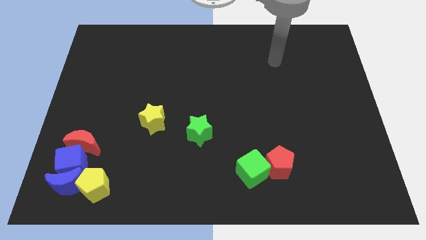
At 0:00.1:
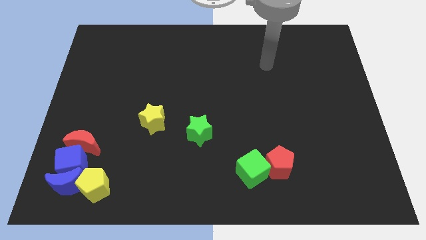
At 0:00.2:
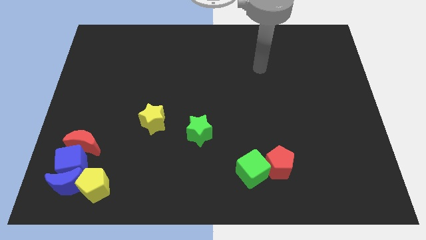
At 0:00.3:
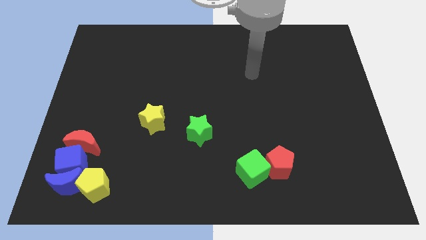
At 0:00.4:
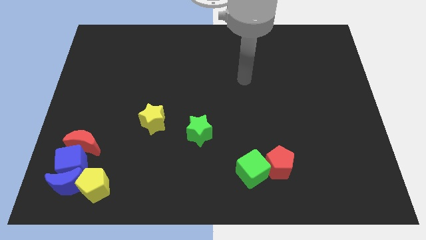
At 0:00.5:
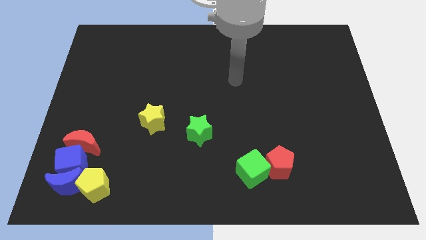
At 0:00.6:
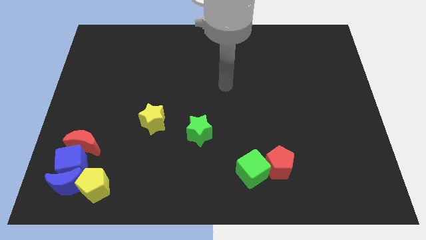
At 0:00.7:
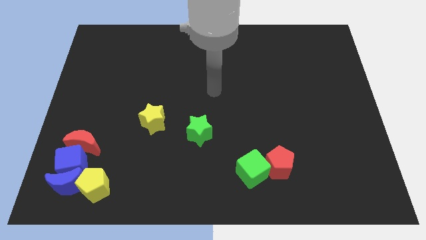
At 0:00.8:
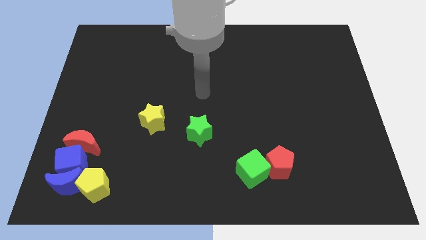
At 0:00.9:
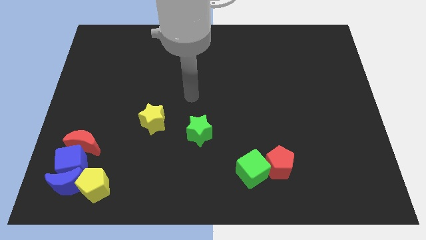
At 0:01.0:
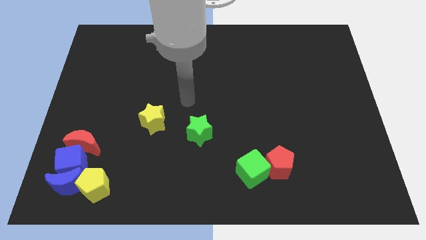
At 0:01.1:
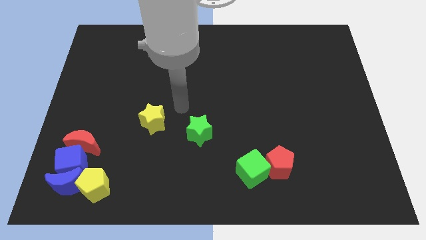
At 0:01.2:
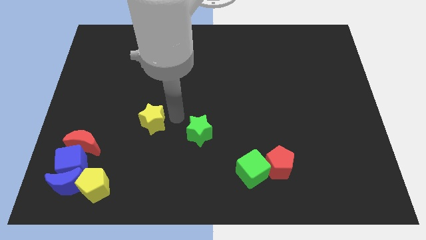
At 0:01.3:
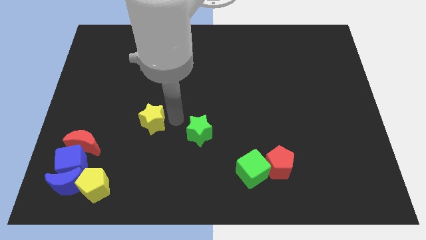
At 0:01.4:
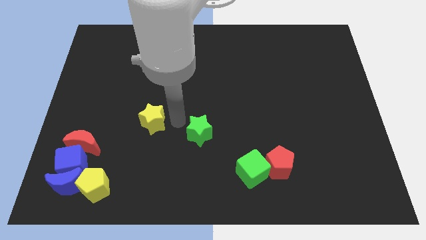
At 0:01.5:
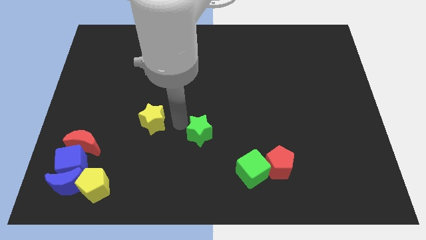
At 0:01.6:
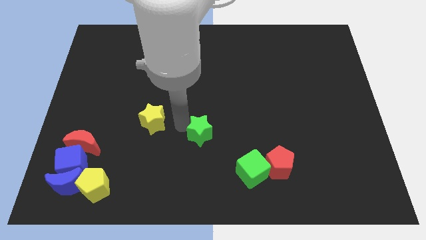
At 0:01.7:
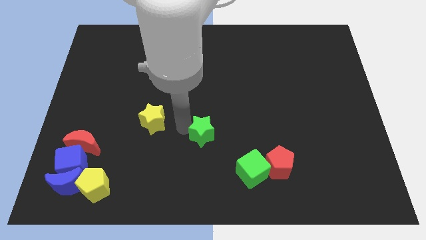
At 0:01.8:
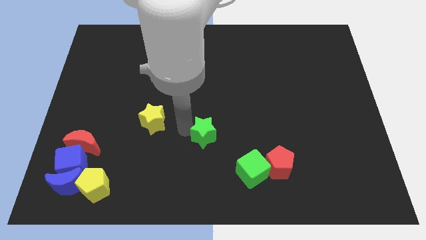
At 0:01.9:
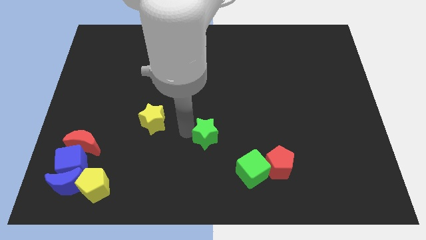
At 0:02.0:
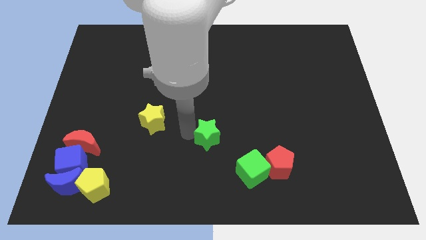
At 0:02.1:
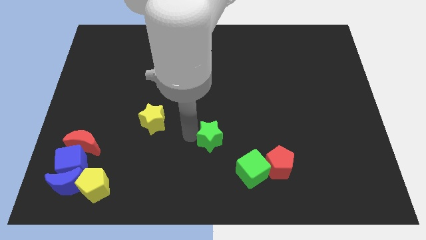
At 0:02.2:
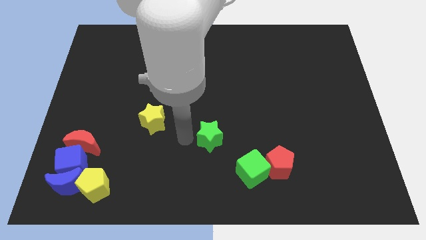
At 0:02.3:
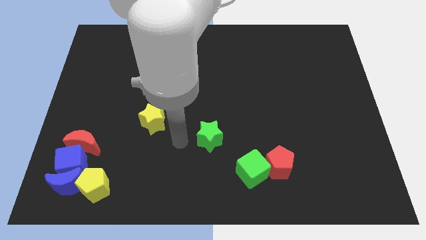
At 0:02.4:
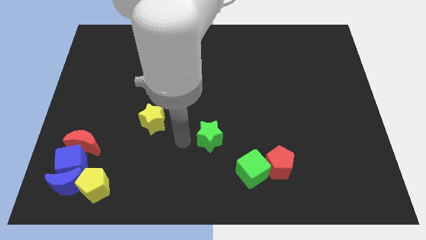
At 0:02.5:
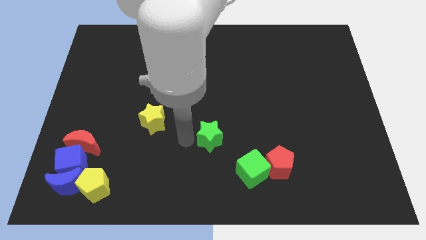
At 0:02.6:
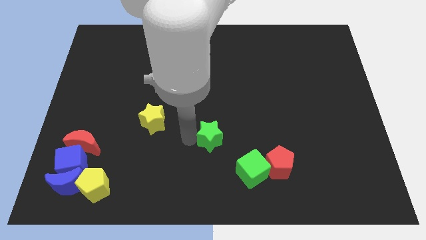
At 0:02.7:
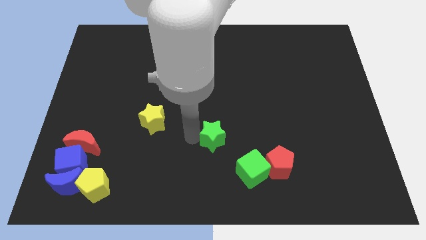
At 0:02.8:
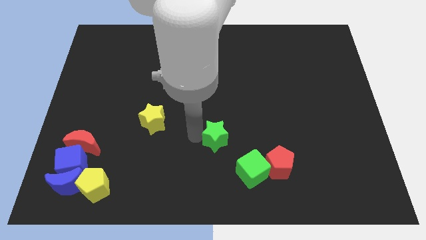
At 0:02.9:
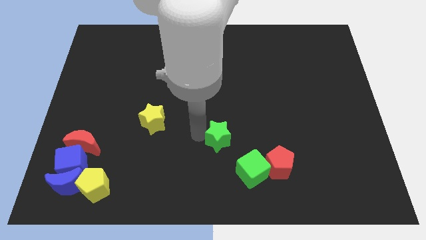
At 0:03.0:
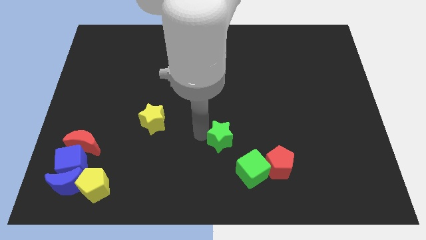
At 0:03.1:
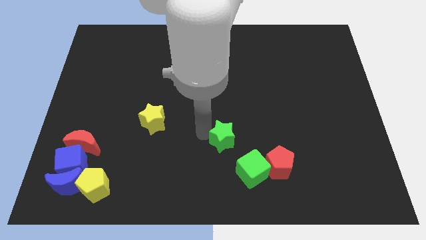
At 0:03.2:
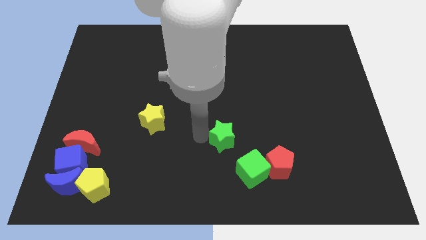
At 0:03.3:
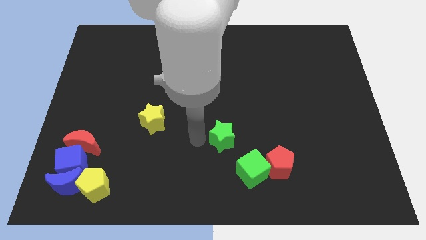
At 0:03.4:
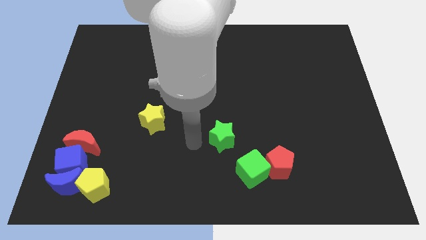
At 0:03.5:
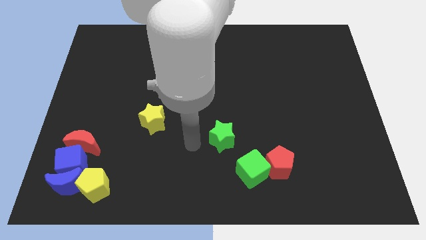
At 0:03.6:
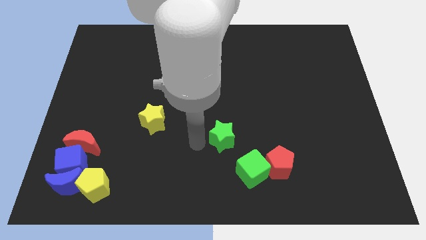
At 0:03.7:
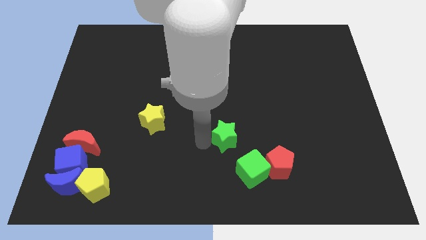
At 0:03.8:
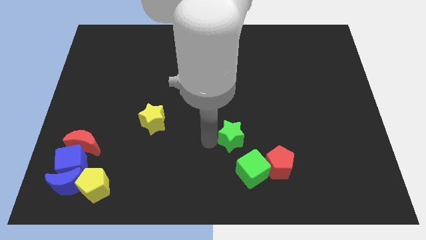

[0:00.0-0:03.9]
move the green star slightly right

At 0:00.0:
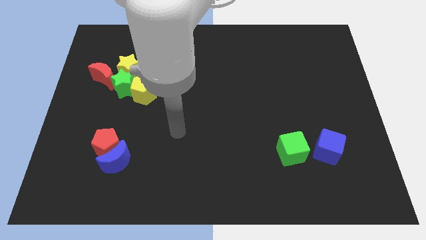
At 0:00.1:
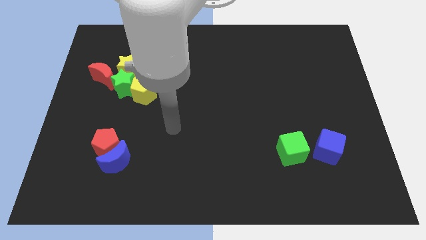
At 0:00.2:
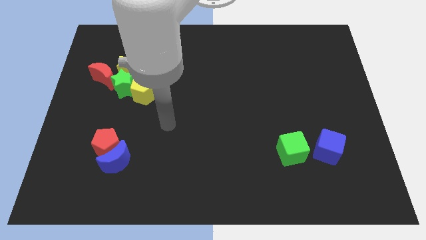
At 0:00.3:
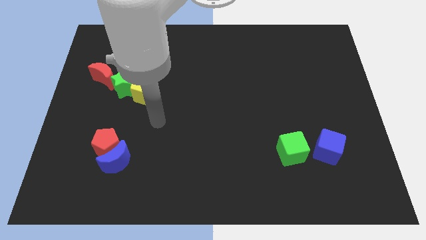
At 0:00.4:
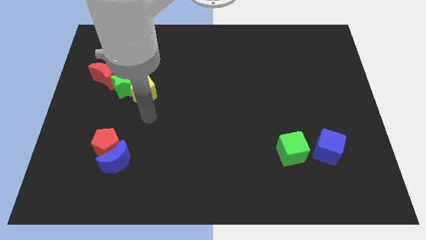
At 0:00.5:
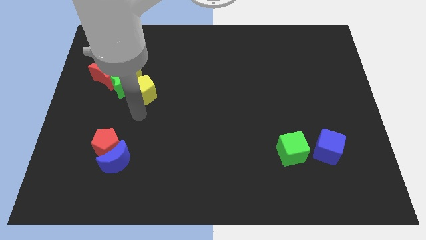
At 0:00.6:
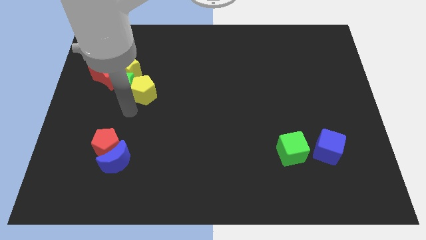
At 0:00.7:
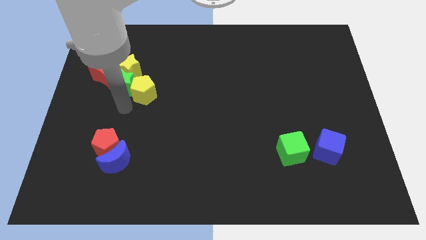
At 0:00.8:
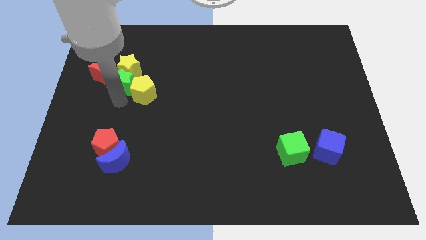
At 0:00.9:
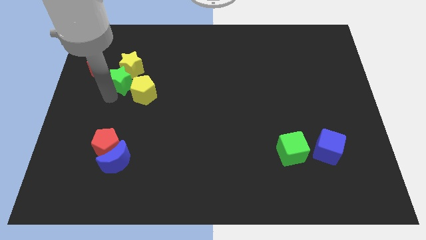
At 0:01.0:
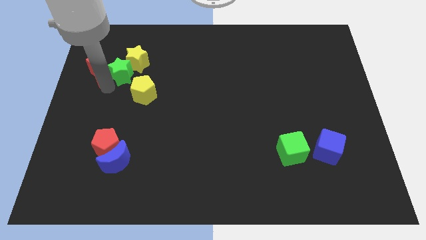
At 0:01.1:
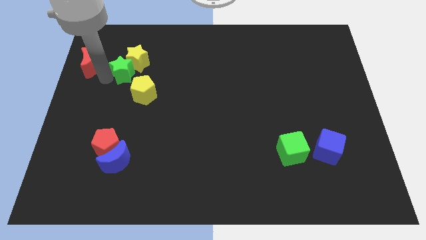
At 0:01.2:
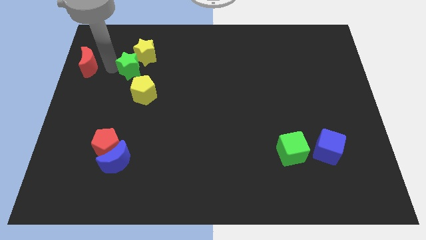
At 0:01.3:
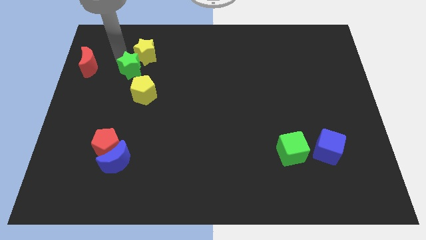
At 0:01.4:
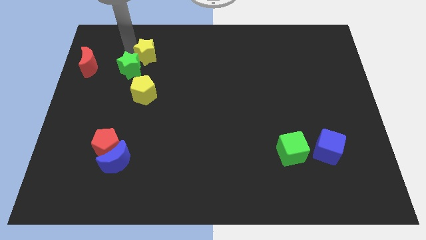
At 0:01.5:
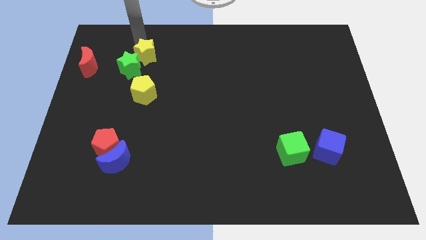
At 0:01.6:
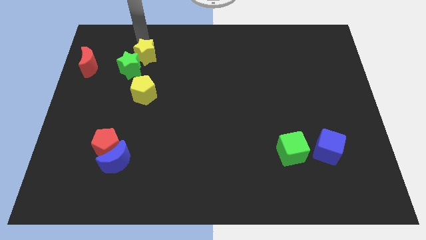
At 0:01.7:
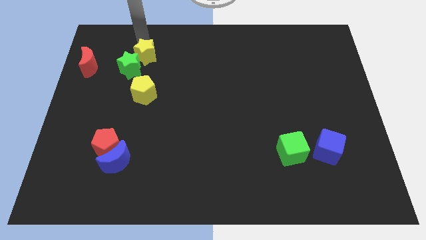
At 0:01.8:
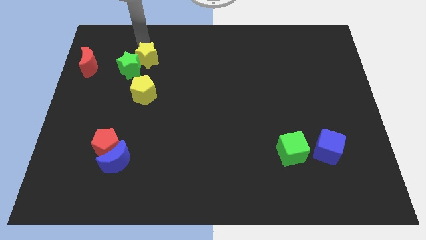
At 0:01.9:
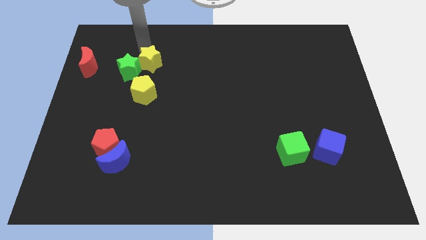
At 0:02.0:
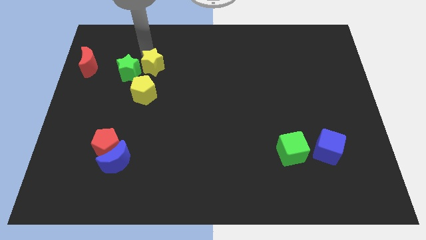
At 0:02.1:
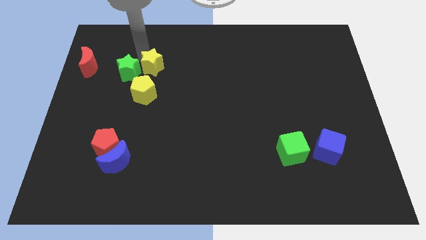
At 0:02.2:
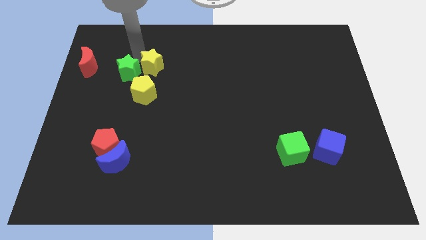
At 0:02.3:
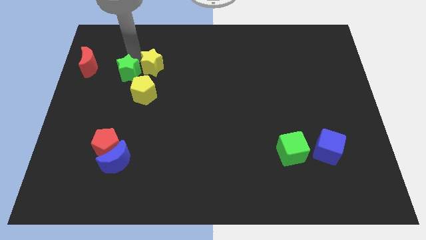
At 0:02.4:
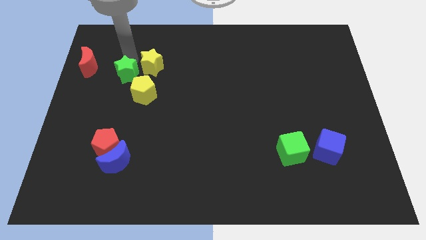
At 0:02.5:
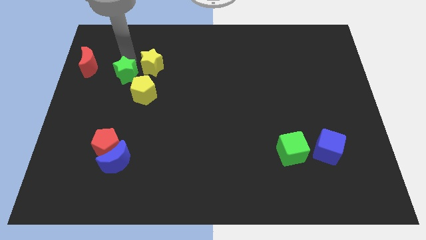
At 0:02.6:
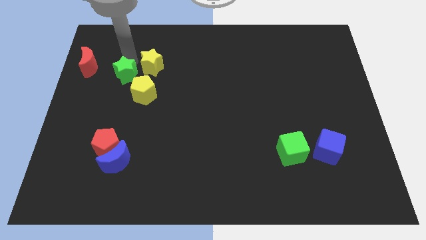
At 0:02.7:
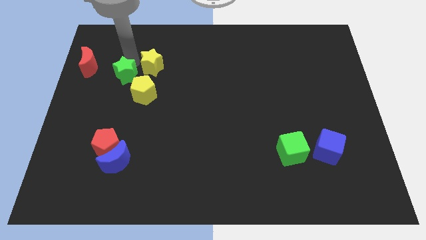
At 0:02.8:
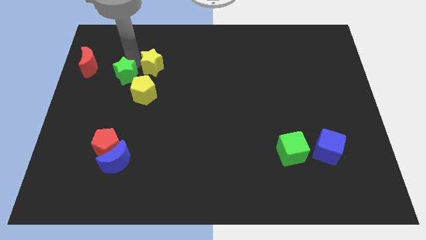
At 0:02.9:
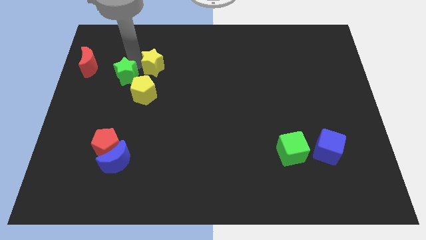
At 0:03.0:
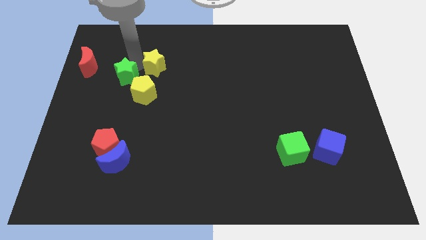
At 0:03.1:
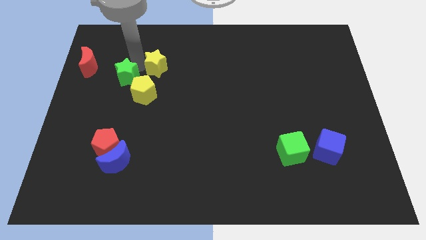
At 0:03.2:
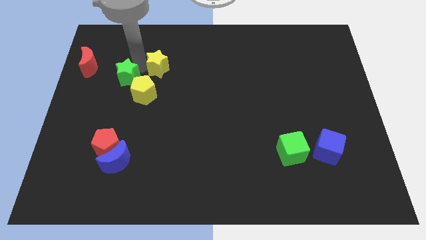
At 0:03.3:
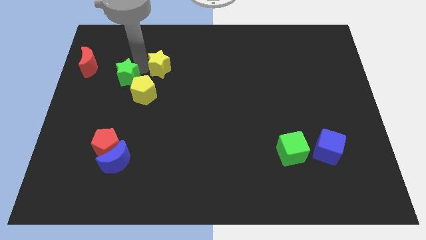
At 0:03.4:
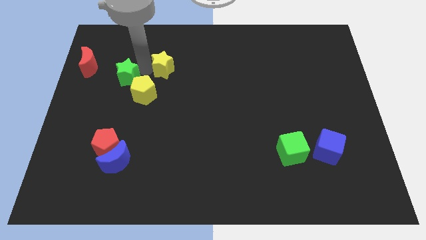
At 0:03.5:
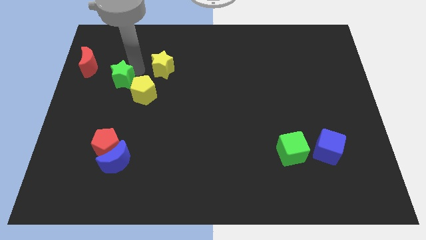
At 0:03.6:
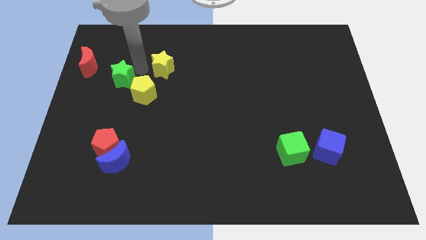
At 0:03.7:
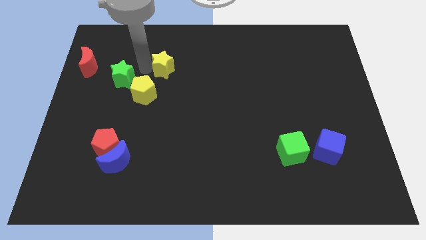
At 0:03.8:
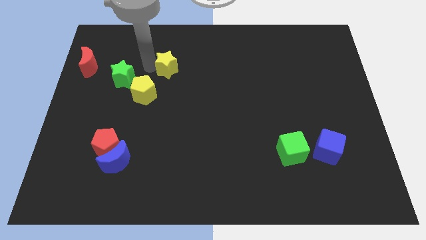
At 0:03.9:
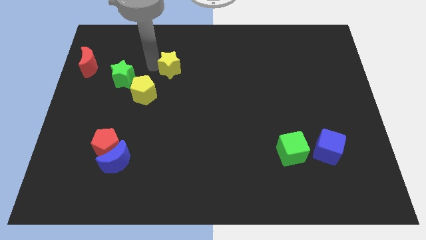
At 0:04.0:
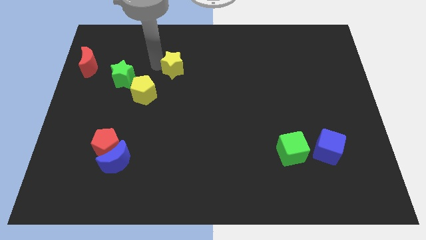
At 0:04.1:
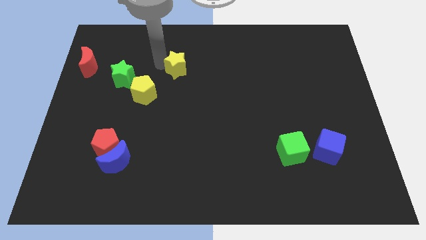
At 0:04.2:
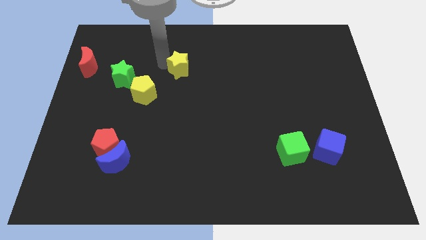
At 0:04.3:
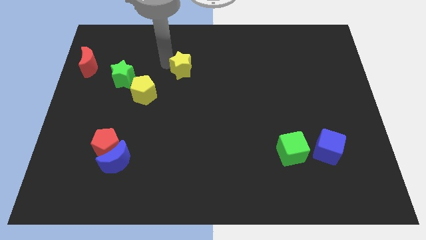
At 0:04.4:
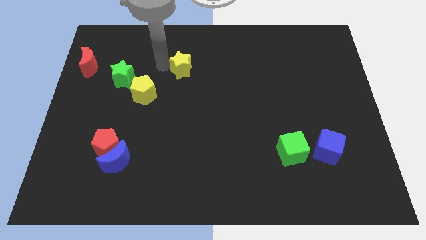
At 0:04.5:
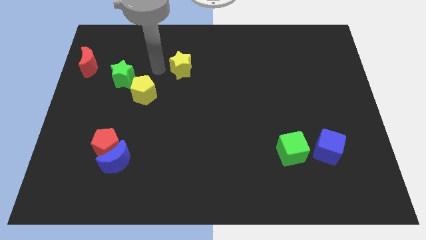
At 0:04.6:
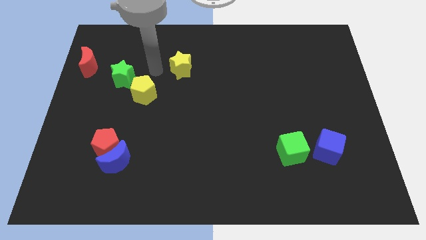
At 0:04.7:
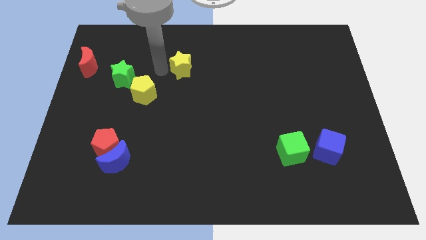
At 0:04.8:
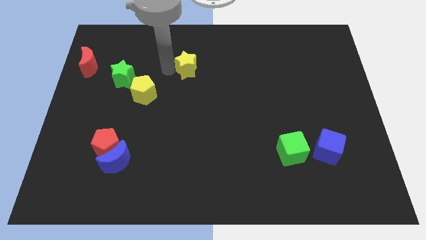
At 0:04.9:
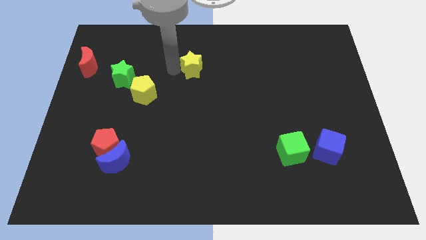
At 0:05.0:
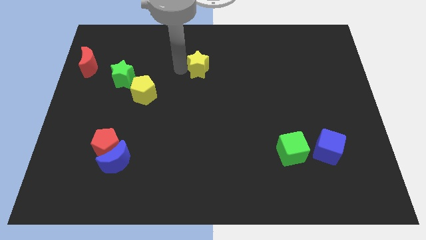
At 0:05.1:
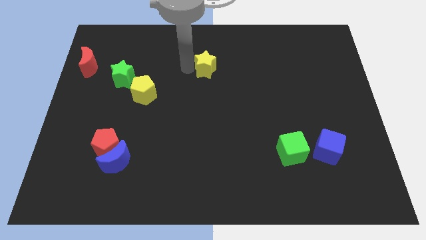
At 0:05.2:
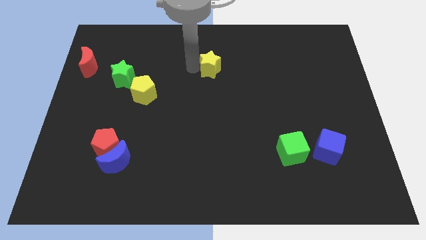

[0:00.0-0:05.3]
move the yellow star to the right
